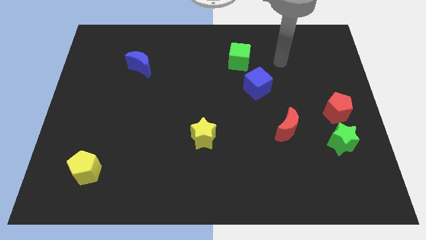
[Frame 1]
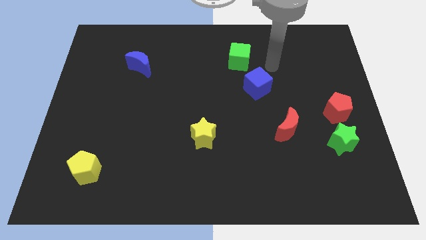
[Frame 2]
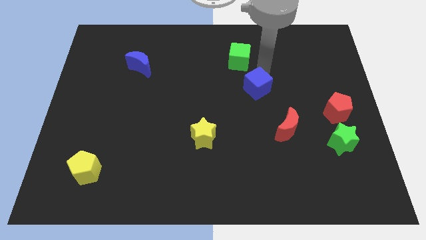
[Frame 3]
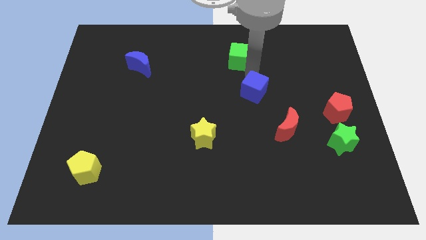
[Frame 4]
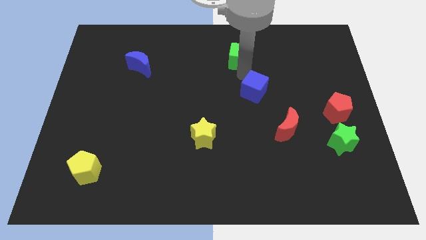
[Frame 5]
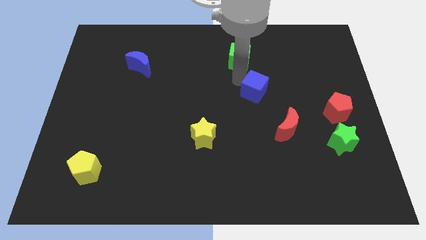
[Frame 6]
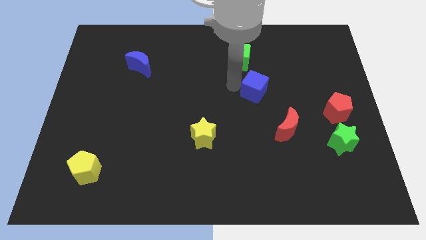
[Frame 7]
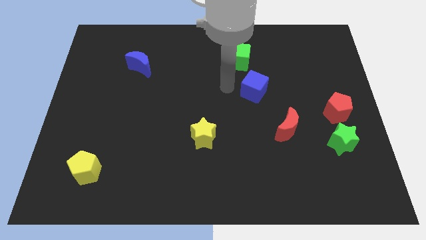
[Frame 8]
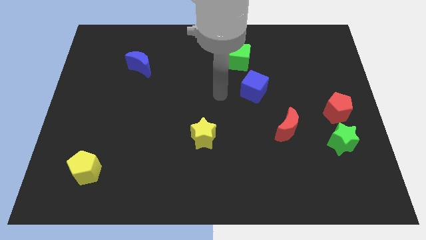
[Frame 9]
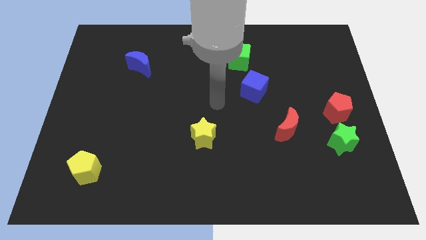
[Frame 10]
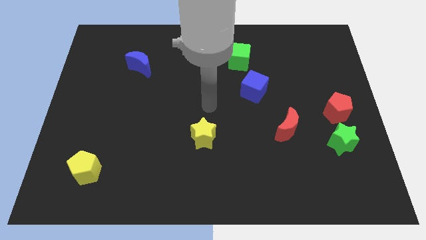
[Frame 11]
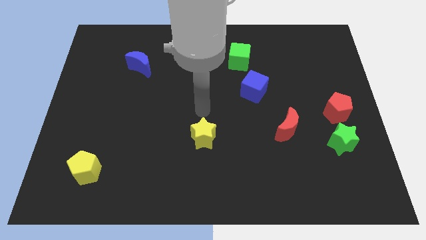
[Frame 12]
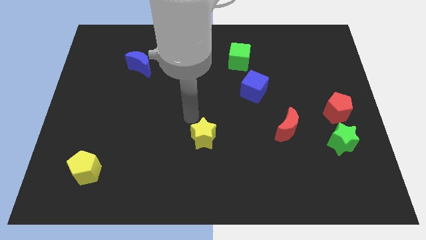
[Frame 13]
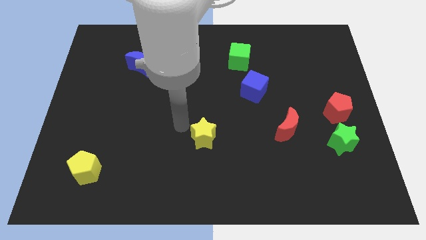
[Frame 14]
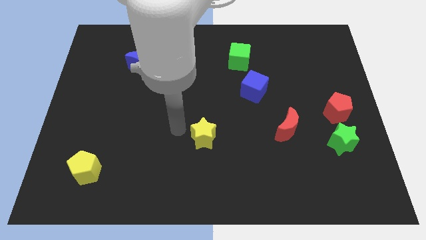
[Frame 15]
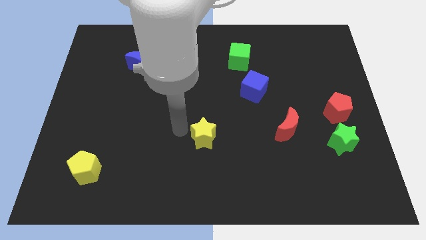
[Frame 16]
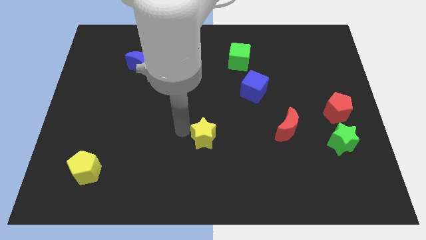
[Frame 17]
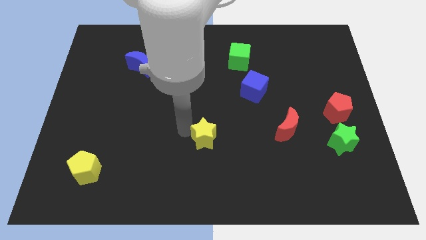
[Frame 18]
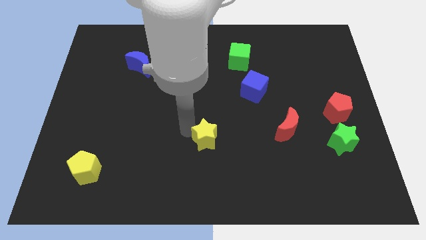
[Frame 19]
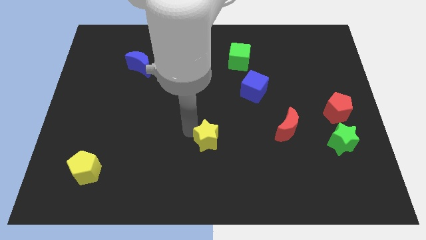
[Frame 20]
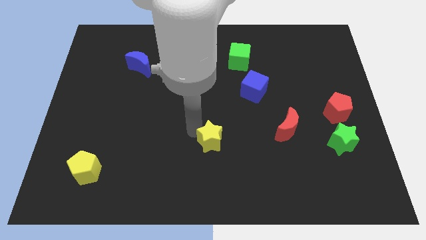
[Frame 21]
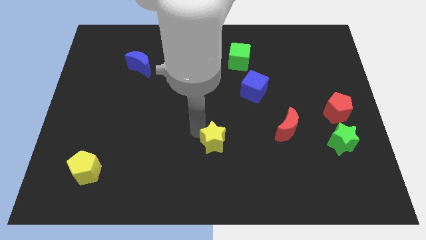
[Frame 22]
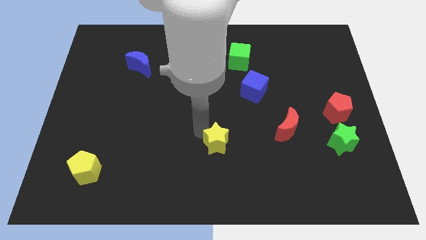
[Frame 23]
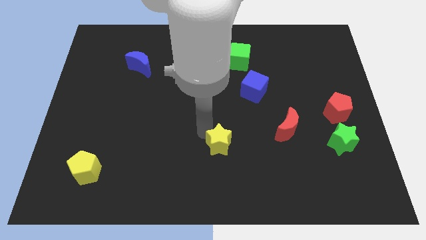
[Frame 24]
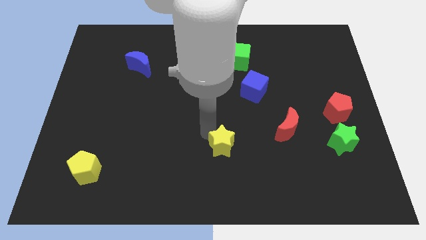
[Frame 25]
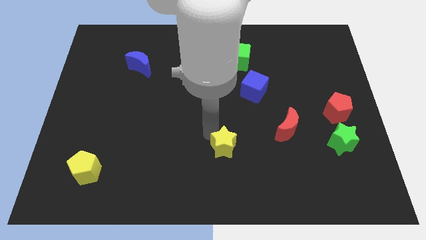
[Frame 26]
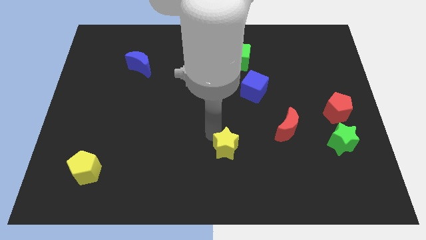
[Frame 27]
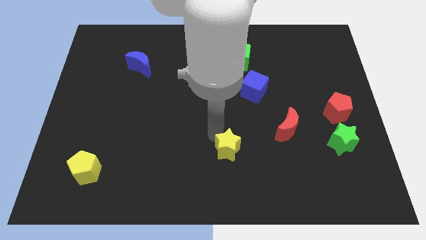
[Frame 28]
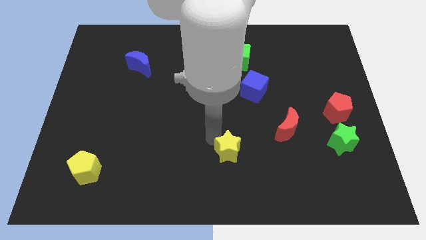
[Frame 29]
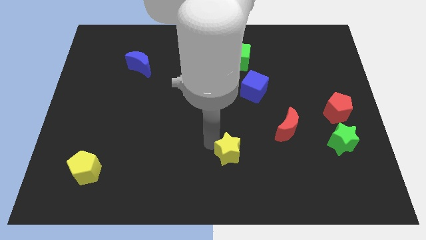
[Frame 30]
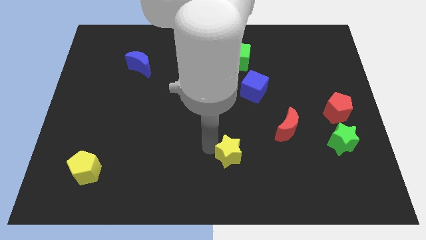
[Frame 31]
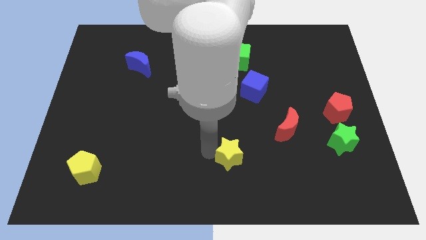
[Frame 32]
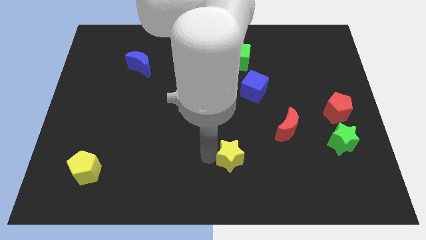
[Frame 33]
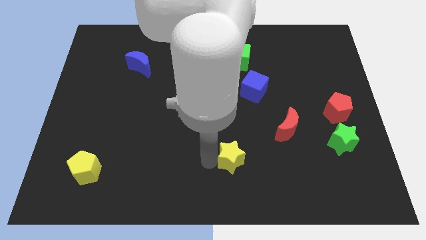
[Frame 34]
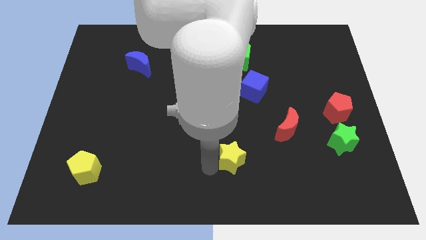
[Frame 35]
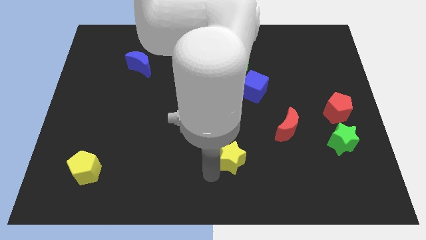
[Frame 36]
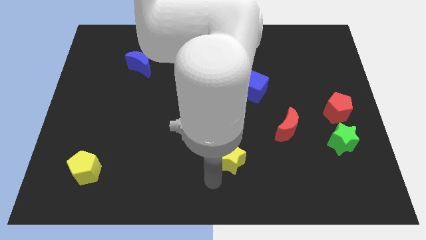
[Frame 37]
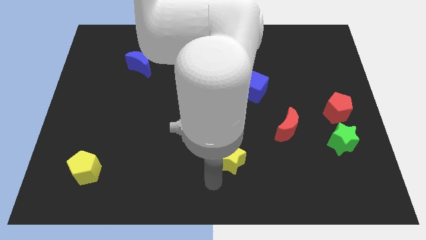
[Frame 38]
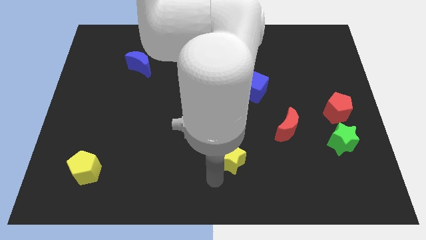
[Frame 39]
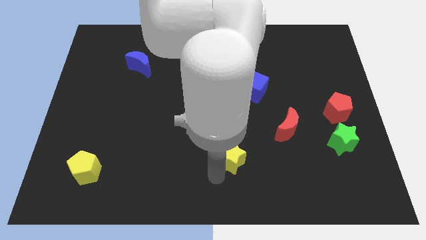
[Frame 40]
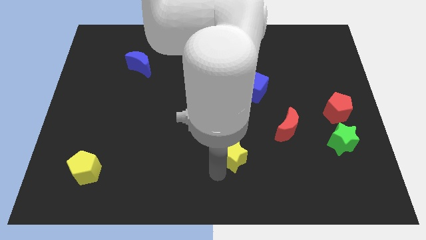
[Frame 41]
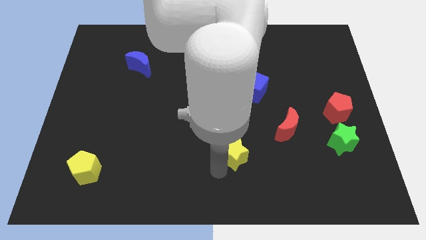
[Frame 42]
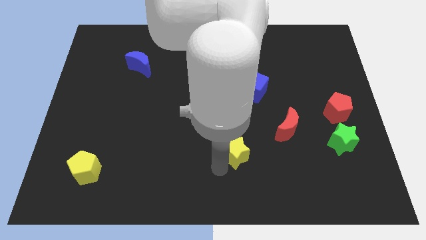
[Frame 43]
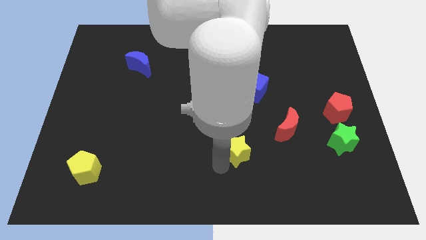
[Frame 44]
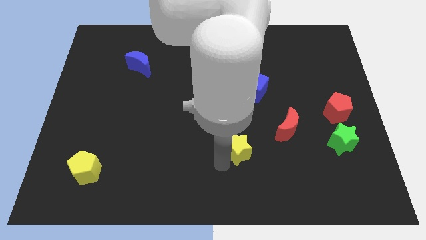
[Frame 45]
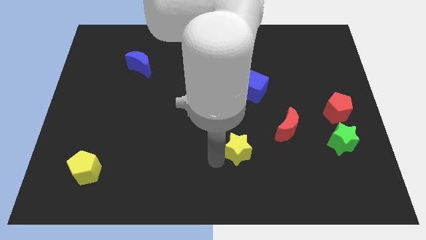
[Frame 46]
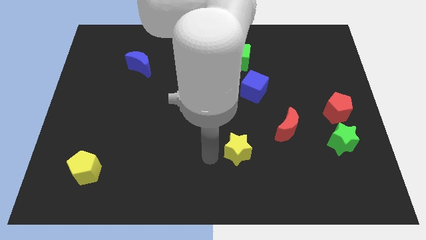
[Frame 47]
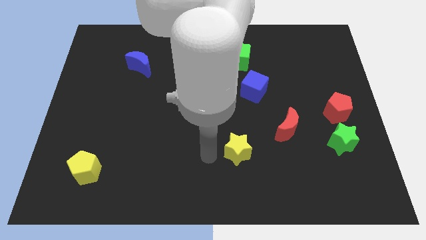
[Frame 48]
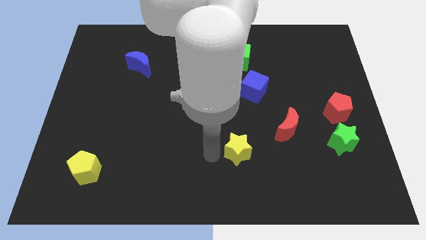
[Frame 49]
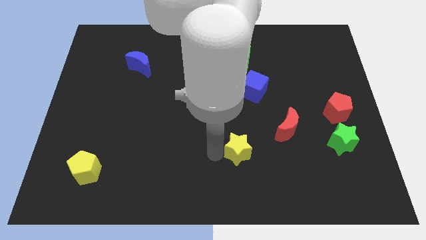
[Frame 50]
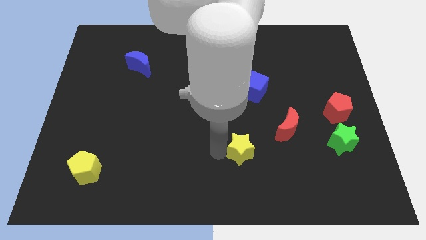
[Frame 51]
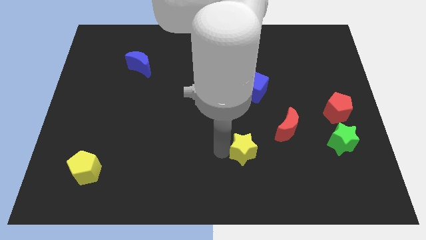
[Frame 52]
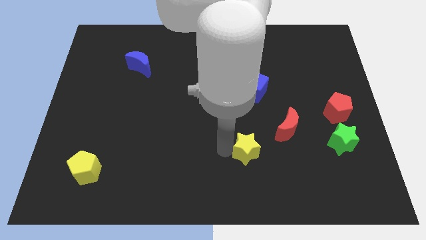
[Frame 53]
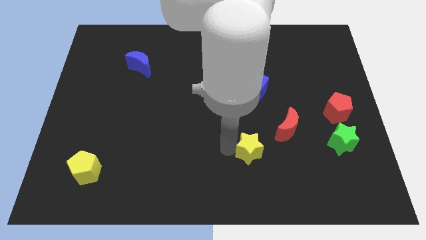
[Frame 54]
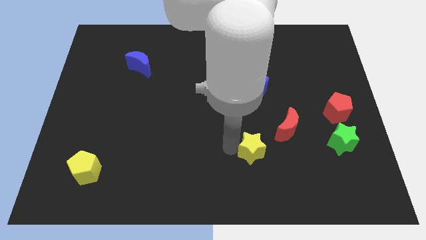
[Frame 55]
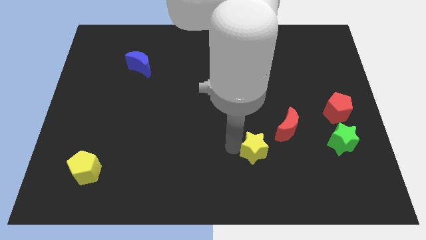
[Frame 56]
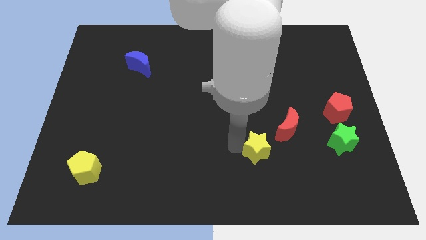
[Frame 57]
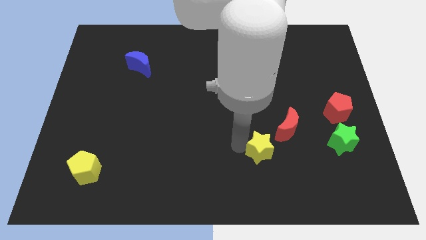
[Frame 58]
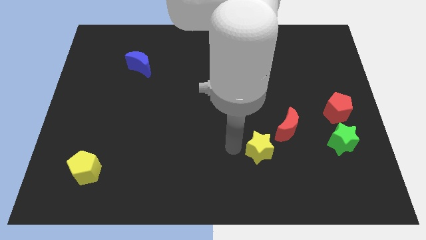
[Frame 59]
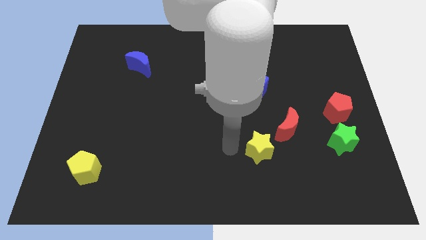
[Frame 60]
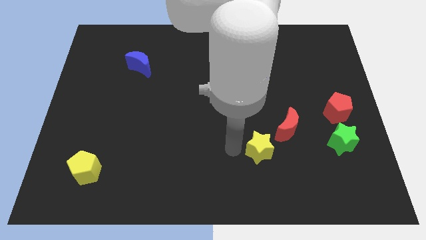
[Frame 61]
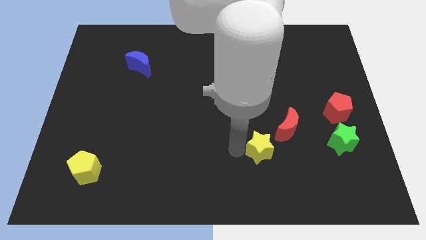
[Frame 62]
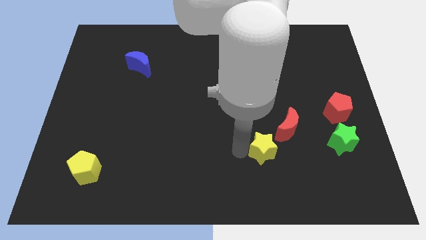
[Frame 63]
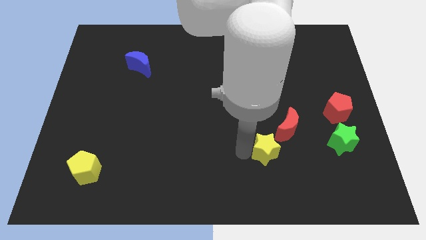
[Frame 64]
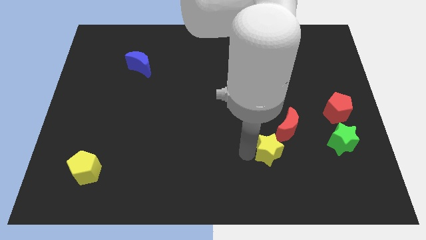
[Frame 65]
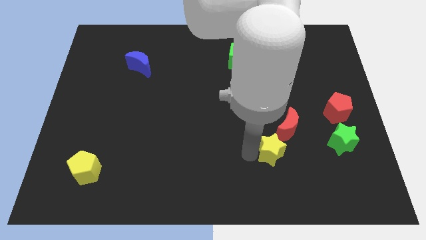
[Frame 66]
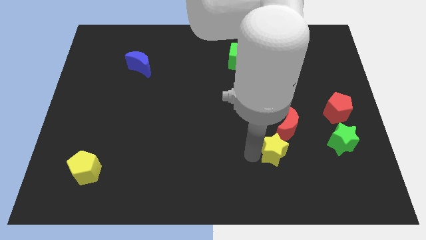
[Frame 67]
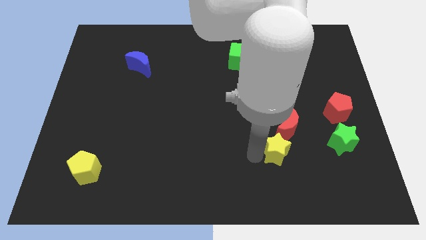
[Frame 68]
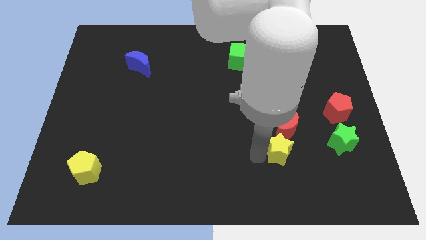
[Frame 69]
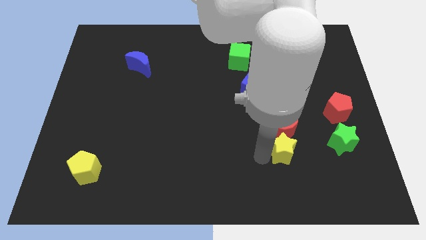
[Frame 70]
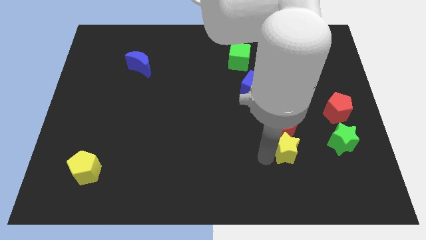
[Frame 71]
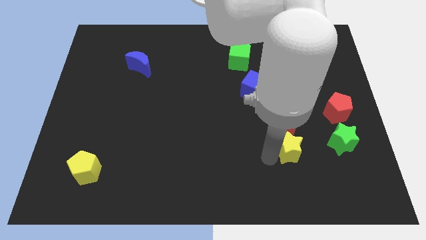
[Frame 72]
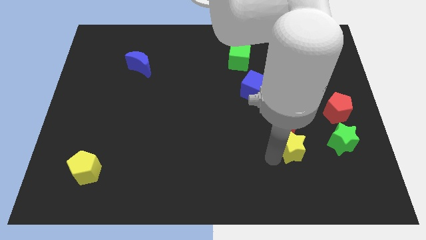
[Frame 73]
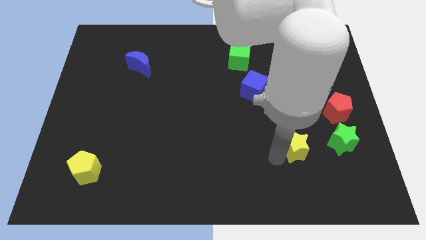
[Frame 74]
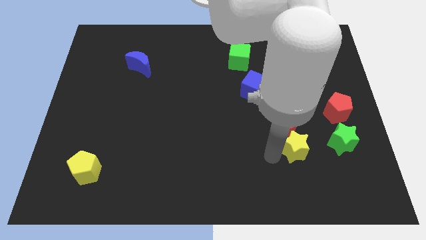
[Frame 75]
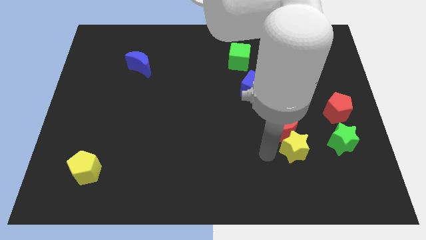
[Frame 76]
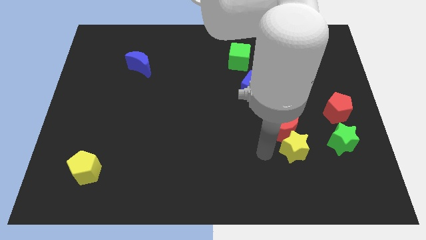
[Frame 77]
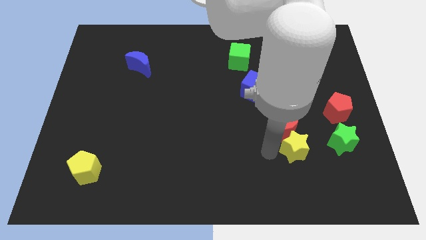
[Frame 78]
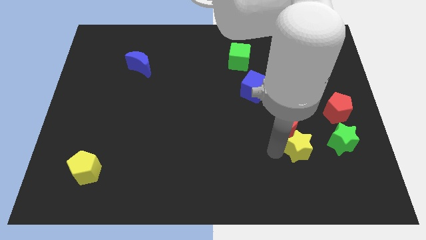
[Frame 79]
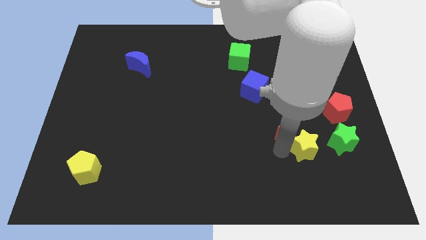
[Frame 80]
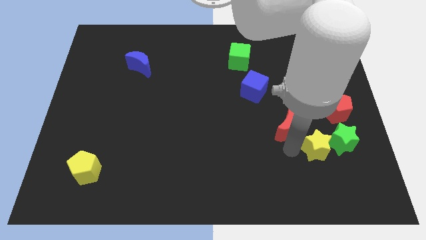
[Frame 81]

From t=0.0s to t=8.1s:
move the yellow star close to the green star
